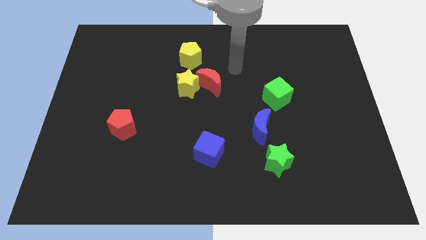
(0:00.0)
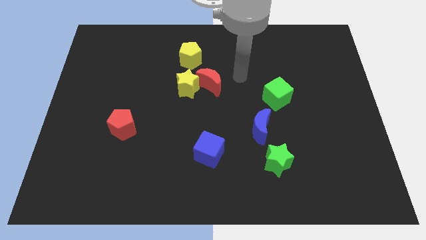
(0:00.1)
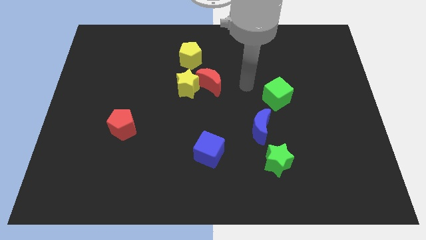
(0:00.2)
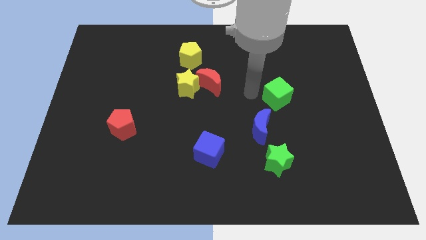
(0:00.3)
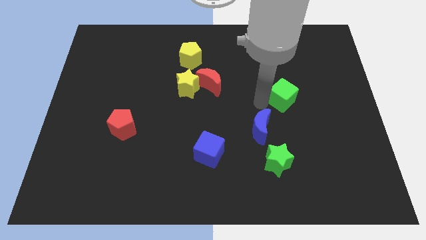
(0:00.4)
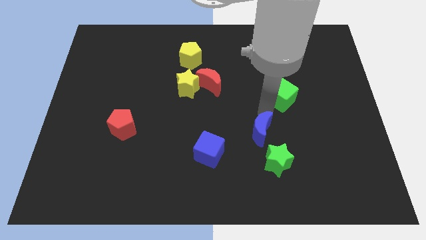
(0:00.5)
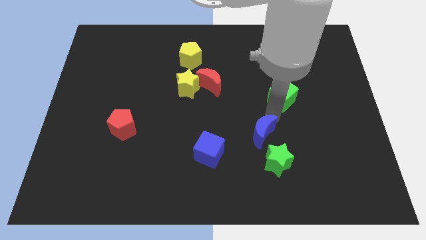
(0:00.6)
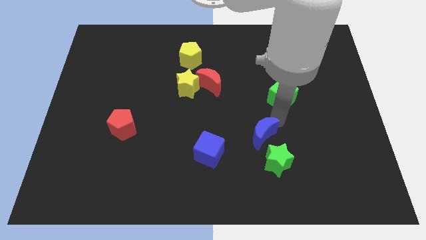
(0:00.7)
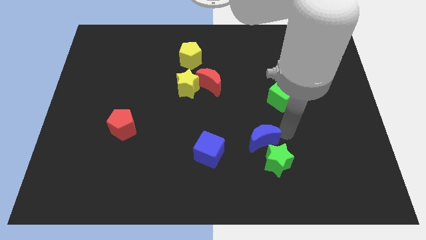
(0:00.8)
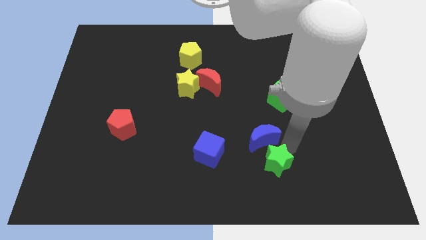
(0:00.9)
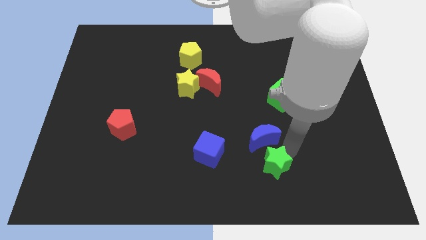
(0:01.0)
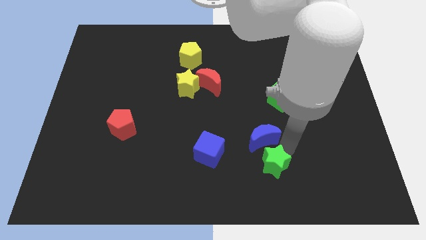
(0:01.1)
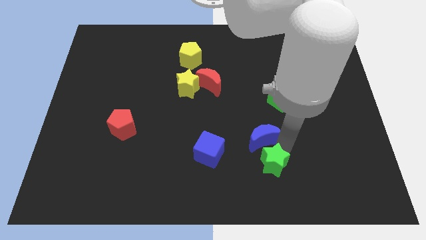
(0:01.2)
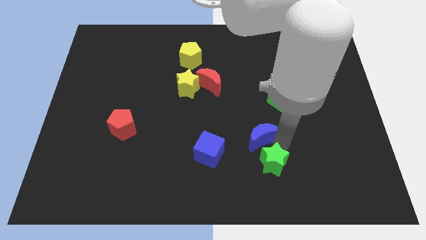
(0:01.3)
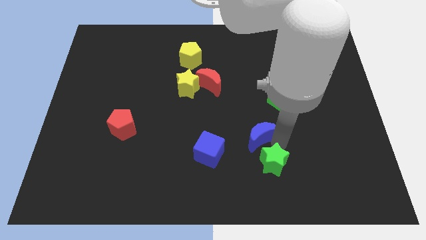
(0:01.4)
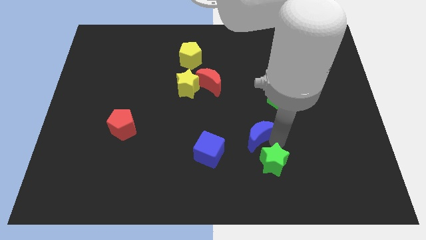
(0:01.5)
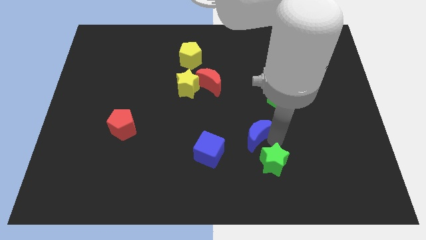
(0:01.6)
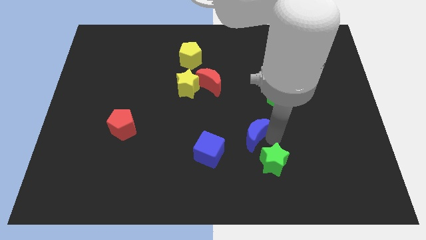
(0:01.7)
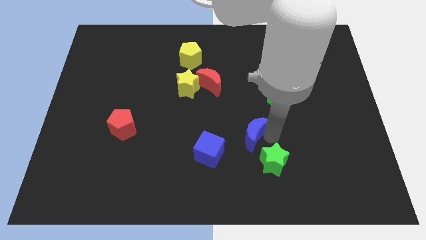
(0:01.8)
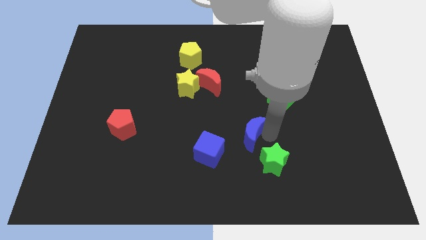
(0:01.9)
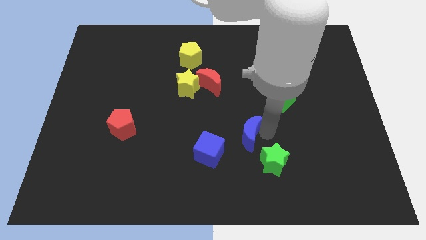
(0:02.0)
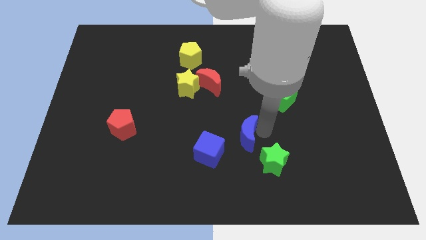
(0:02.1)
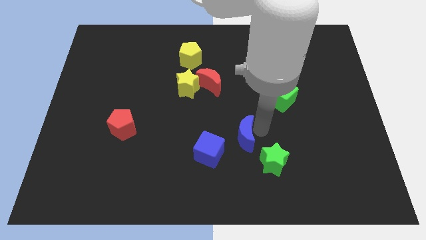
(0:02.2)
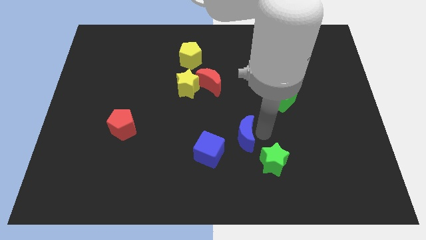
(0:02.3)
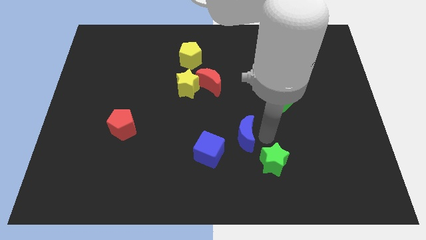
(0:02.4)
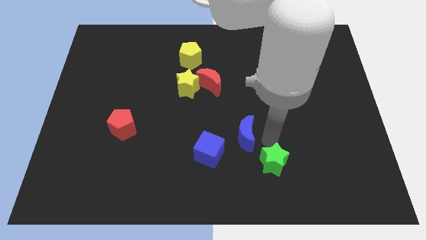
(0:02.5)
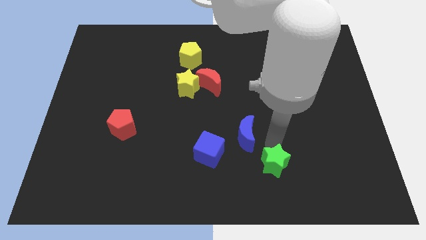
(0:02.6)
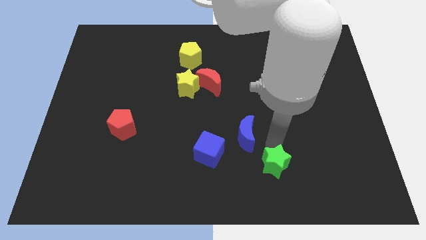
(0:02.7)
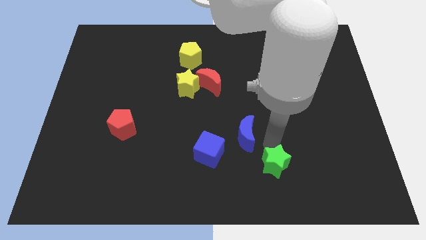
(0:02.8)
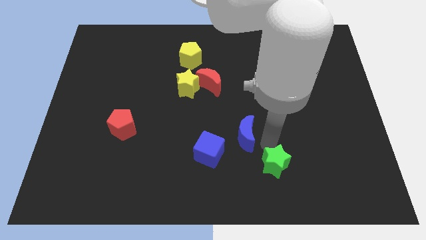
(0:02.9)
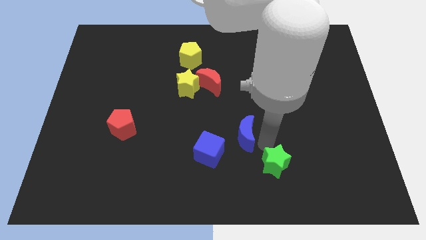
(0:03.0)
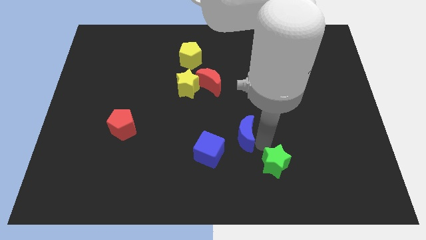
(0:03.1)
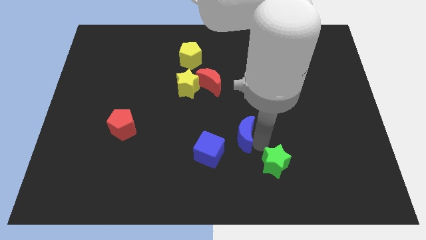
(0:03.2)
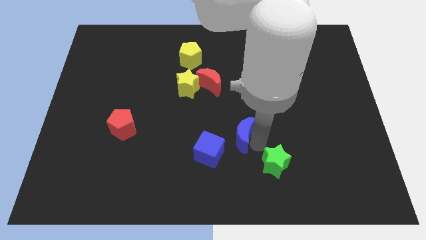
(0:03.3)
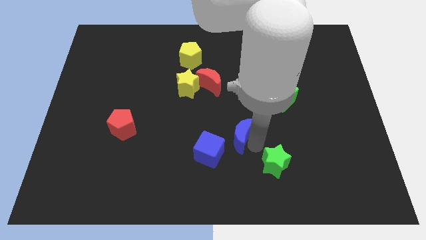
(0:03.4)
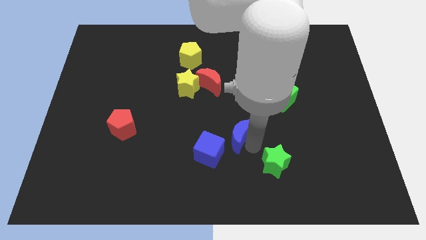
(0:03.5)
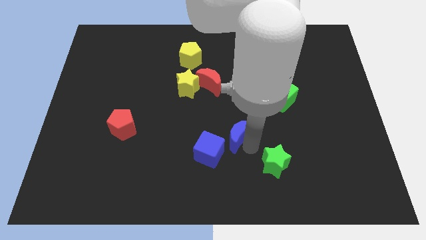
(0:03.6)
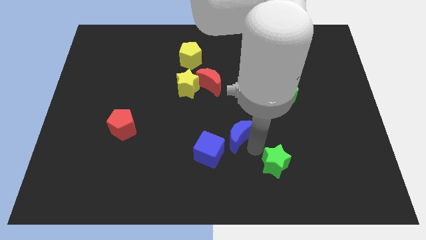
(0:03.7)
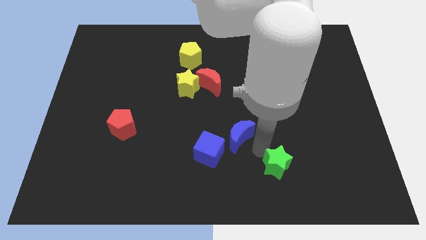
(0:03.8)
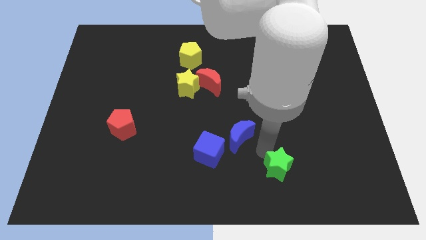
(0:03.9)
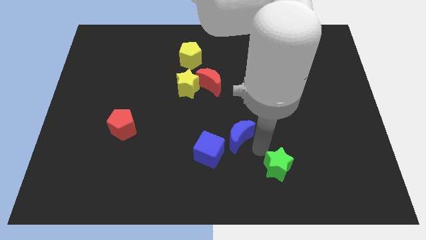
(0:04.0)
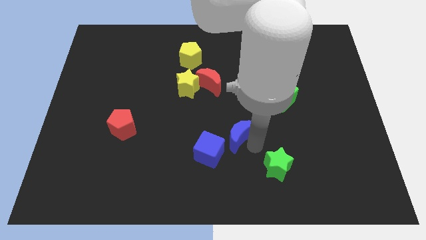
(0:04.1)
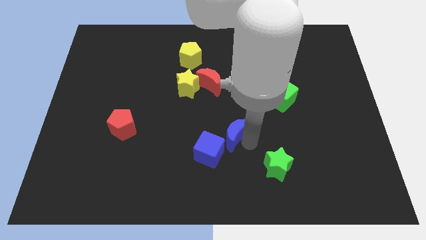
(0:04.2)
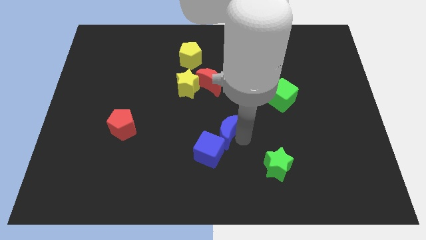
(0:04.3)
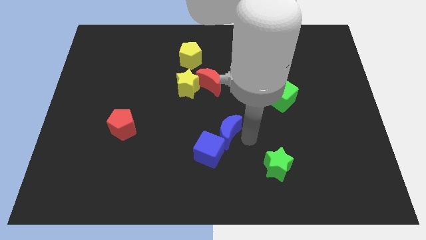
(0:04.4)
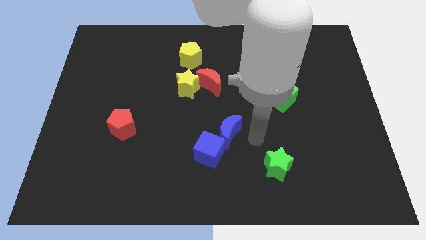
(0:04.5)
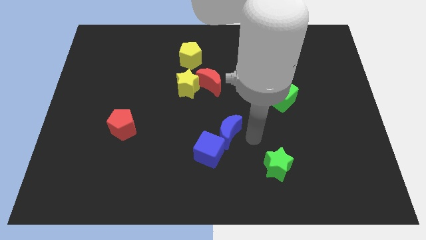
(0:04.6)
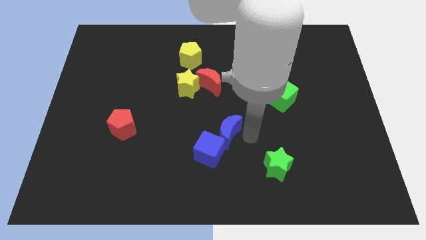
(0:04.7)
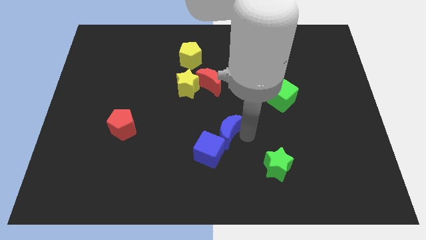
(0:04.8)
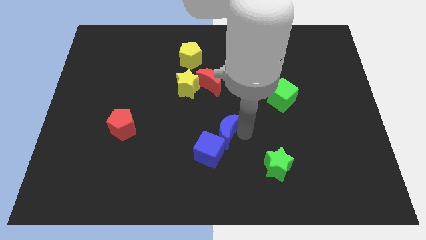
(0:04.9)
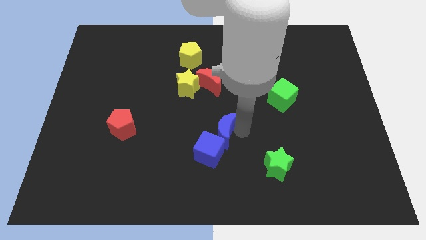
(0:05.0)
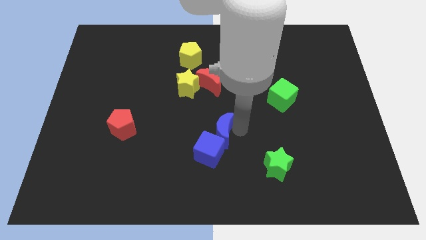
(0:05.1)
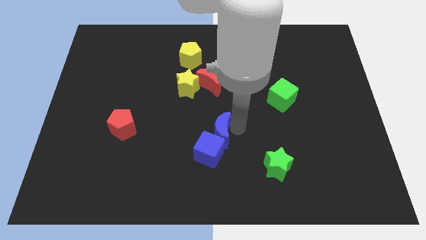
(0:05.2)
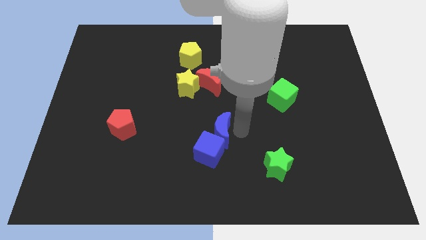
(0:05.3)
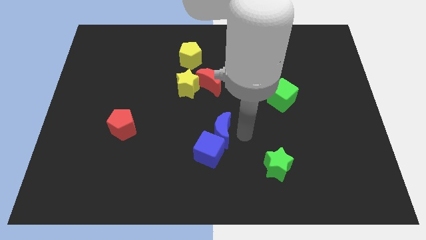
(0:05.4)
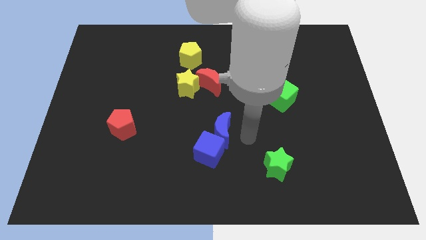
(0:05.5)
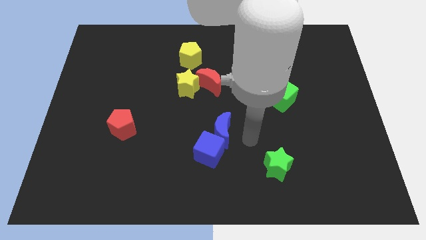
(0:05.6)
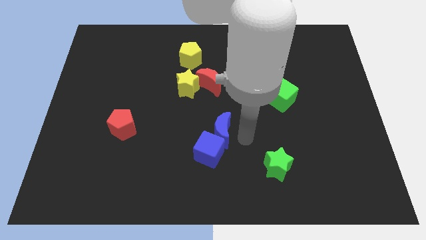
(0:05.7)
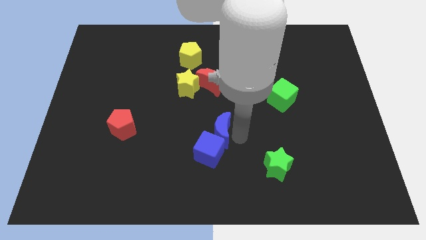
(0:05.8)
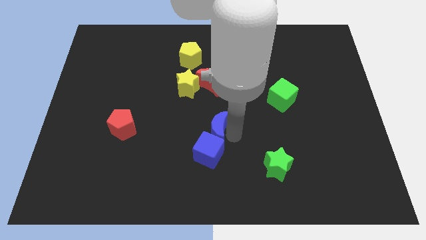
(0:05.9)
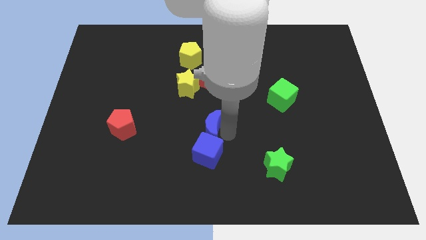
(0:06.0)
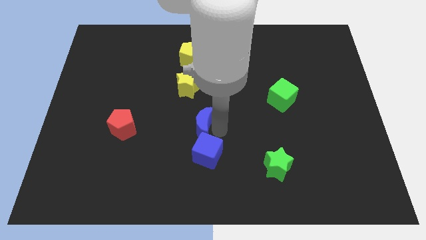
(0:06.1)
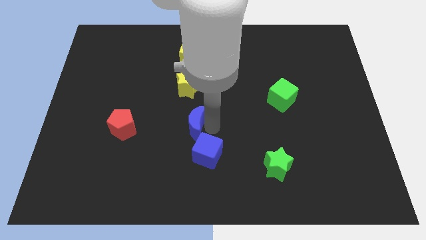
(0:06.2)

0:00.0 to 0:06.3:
move the blue moon to the right of the red pentagon
